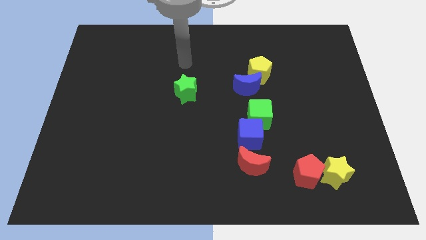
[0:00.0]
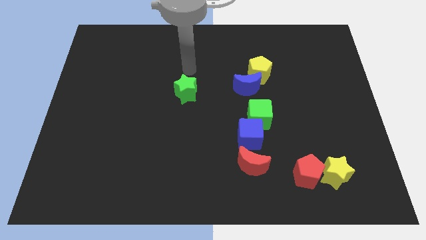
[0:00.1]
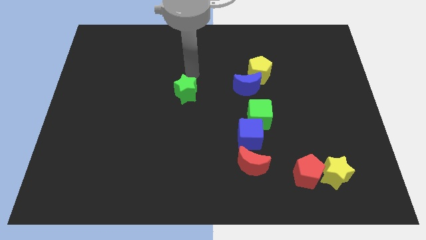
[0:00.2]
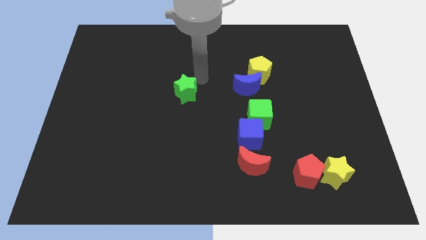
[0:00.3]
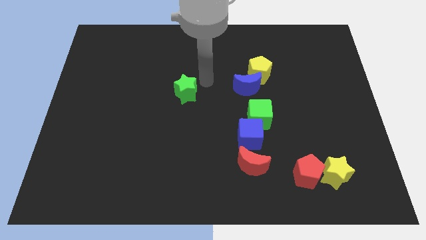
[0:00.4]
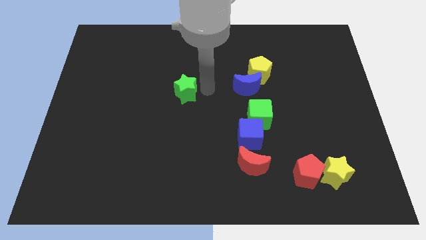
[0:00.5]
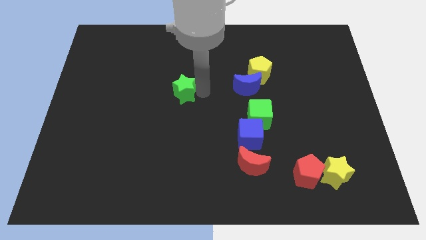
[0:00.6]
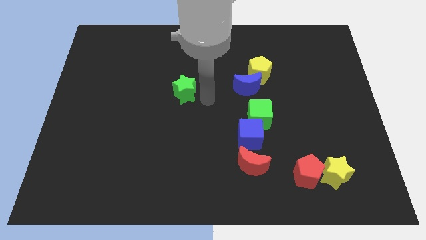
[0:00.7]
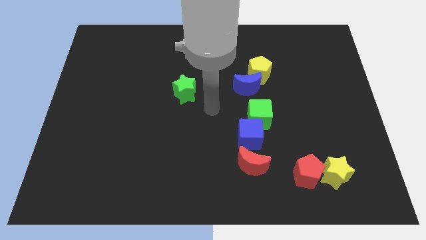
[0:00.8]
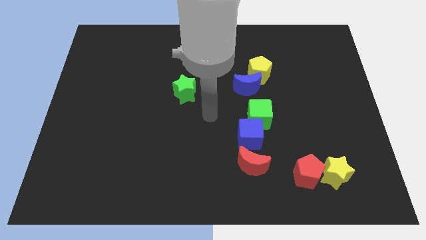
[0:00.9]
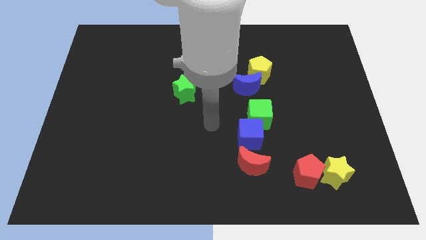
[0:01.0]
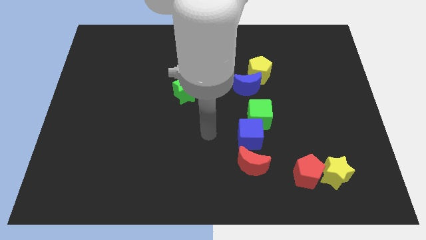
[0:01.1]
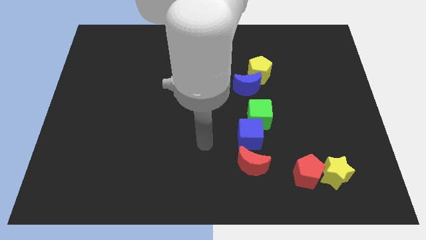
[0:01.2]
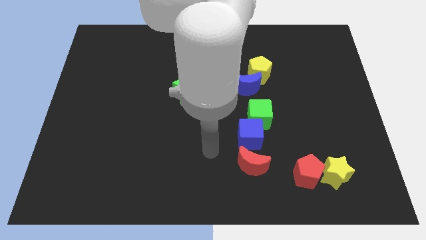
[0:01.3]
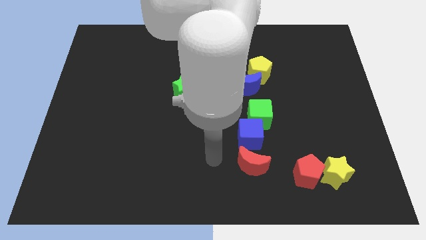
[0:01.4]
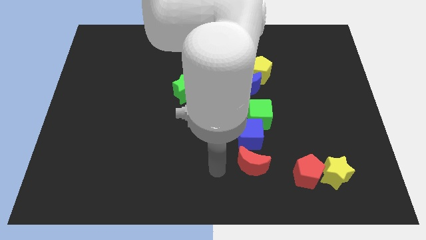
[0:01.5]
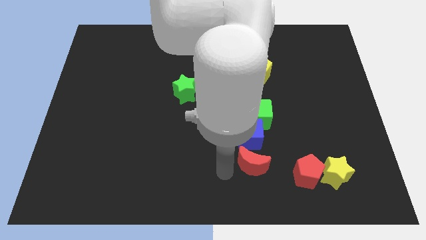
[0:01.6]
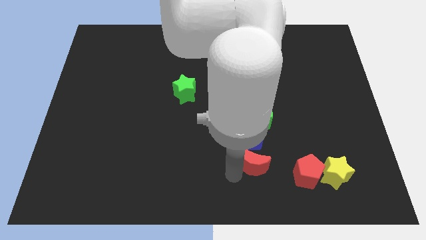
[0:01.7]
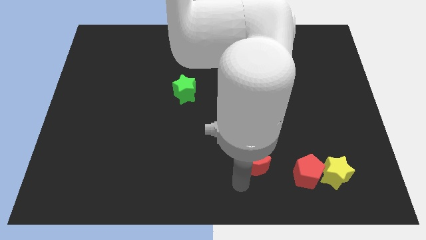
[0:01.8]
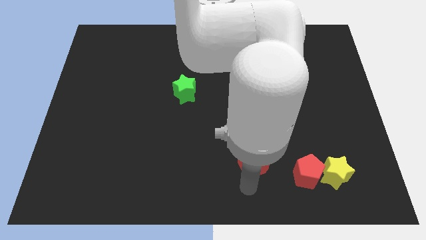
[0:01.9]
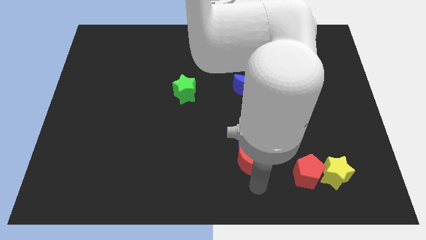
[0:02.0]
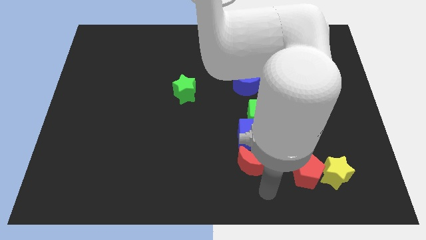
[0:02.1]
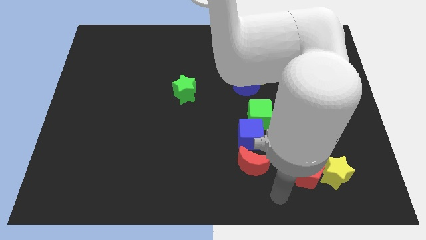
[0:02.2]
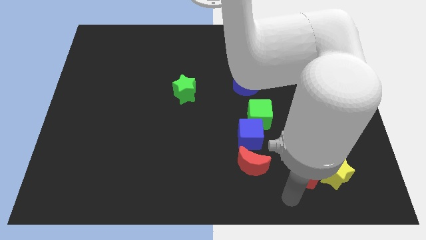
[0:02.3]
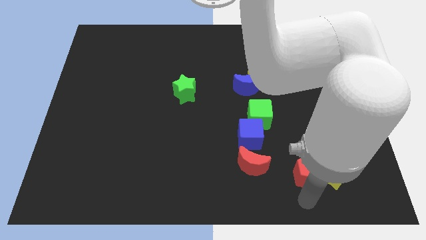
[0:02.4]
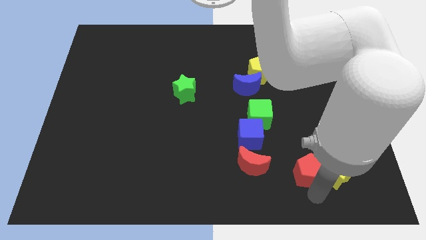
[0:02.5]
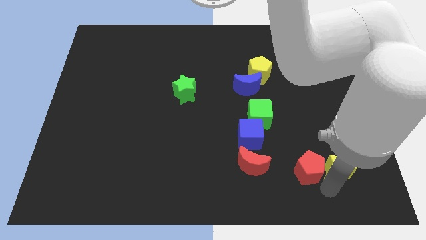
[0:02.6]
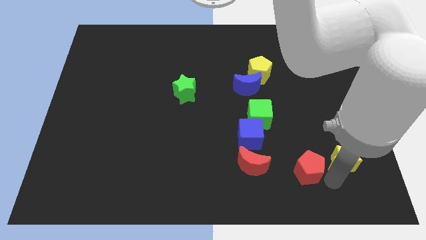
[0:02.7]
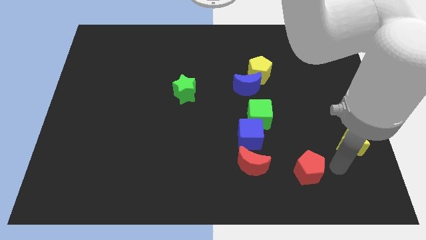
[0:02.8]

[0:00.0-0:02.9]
move the red pentagon away from the yellow star

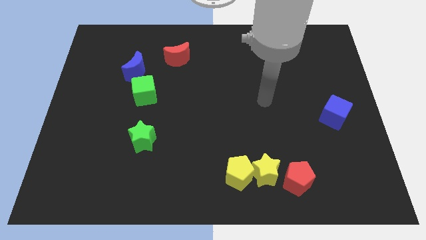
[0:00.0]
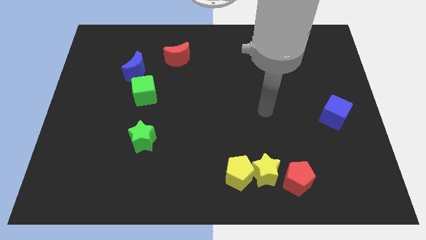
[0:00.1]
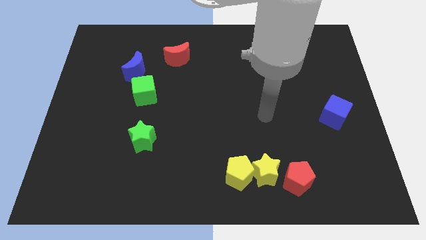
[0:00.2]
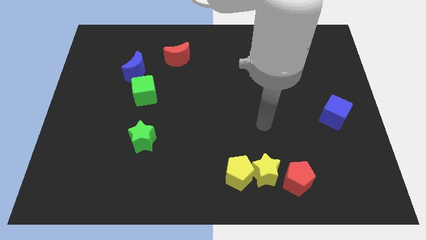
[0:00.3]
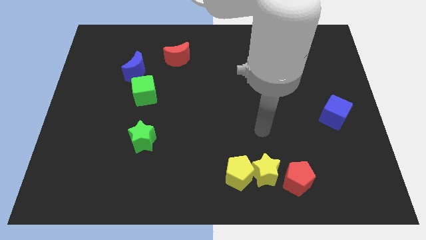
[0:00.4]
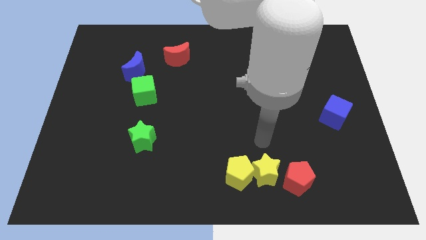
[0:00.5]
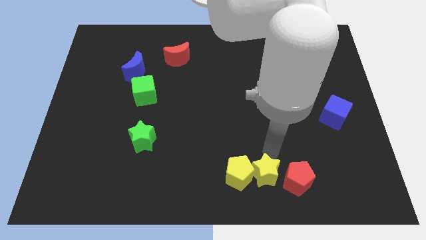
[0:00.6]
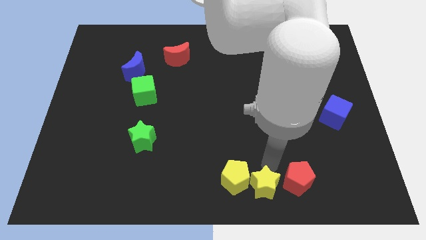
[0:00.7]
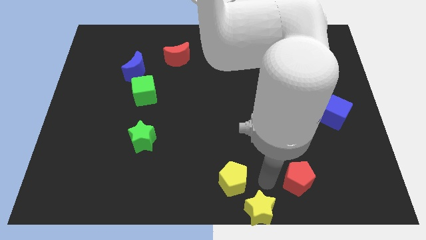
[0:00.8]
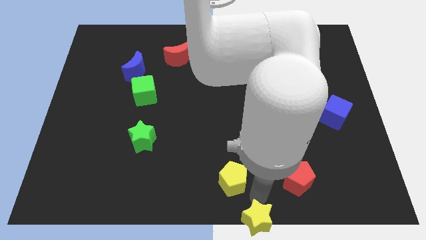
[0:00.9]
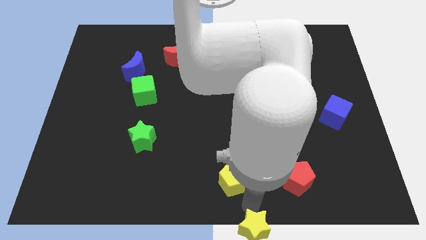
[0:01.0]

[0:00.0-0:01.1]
pull the yellow pentagon apart from the yellow star

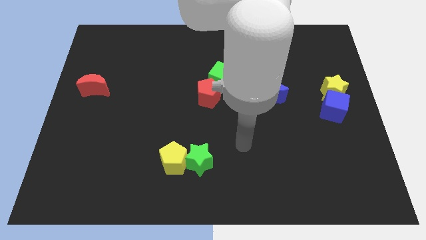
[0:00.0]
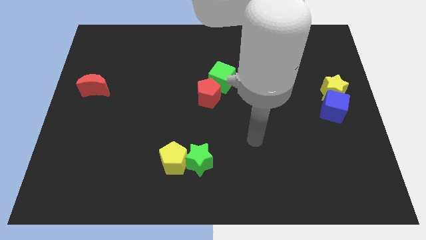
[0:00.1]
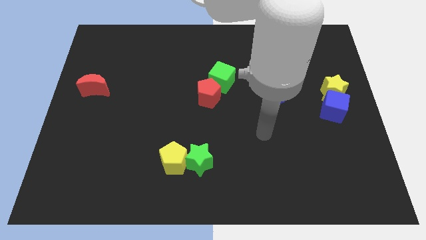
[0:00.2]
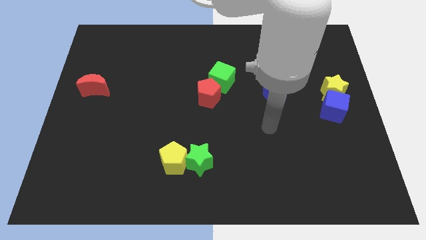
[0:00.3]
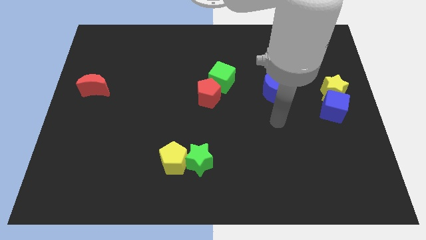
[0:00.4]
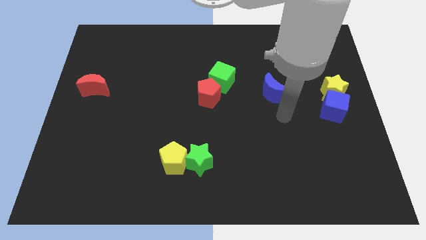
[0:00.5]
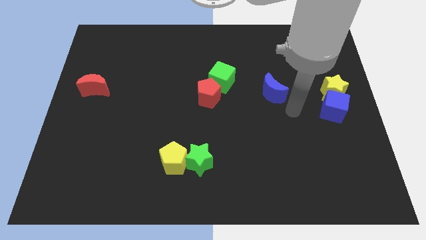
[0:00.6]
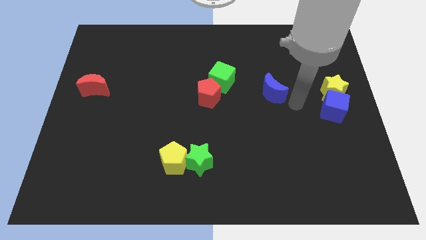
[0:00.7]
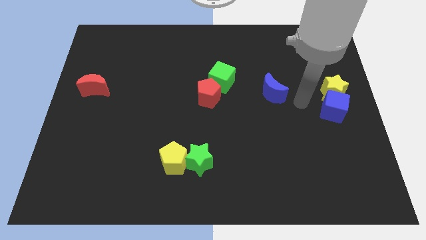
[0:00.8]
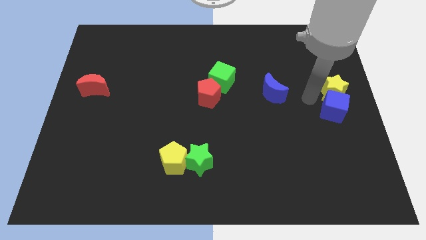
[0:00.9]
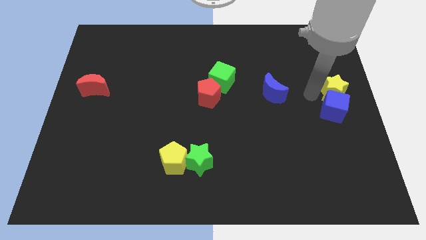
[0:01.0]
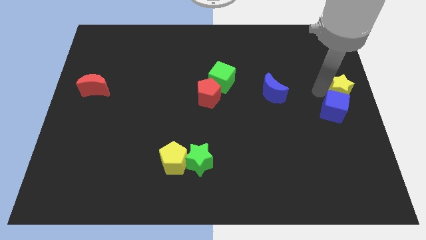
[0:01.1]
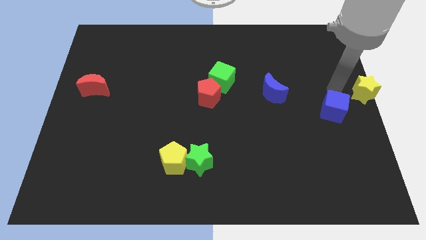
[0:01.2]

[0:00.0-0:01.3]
move the blue cube away from the yellow star

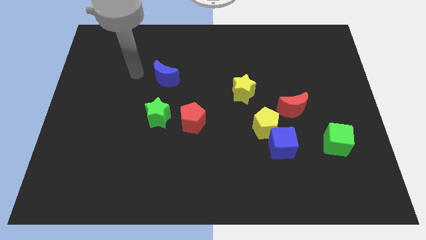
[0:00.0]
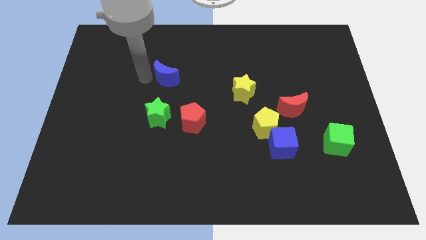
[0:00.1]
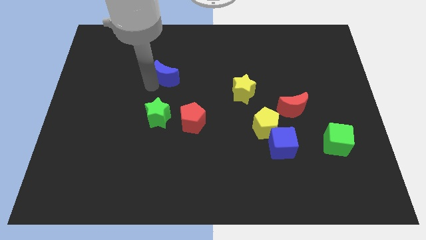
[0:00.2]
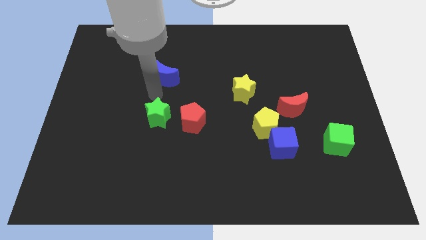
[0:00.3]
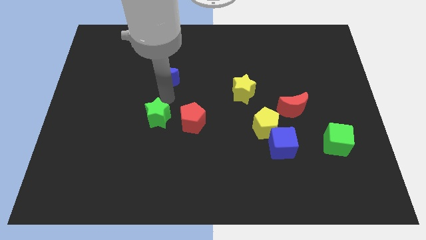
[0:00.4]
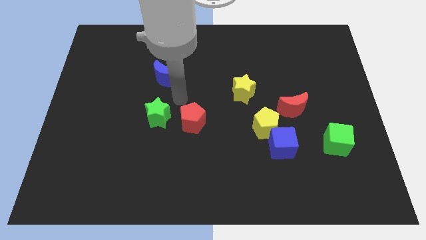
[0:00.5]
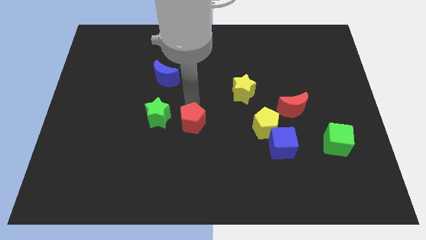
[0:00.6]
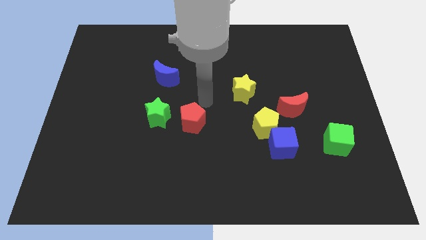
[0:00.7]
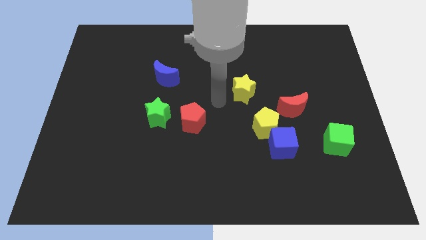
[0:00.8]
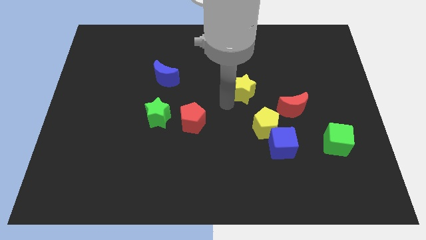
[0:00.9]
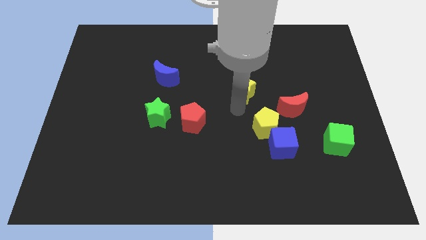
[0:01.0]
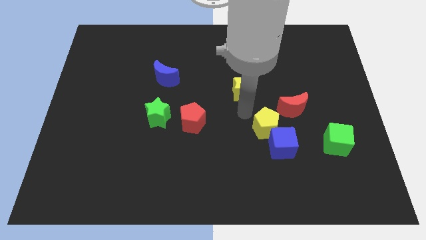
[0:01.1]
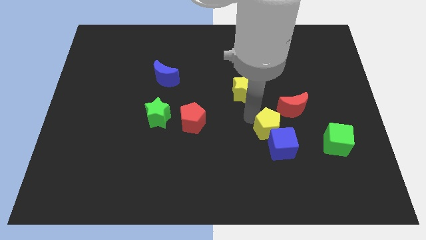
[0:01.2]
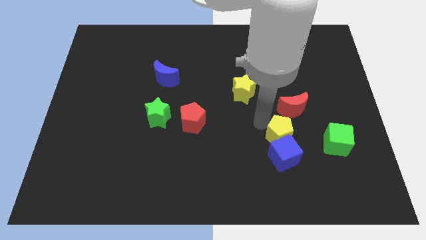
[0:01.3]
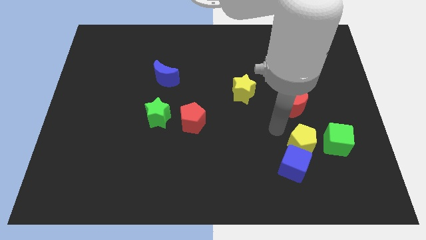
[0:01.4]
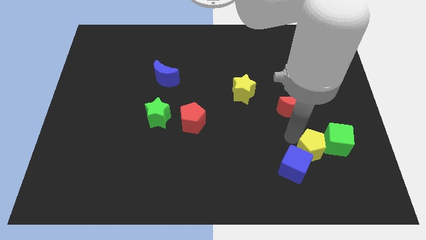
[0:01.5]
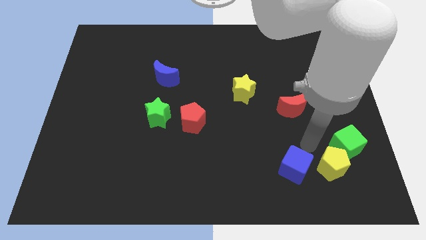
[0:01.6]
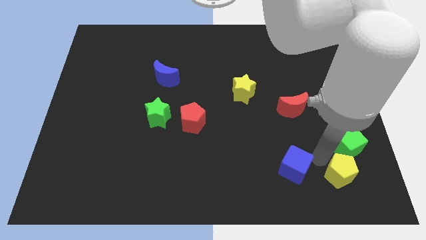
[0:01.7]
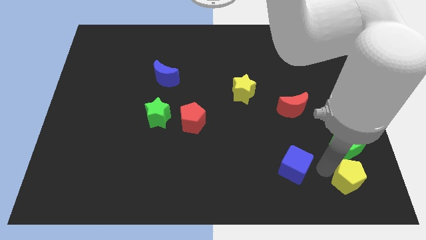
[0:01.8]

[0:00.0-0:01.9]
pull the blue cube apart from the yellow pentagon

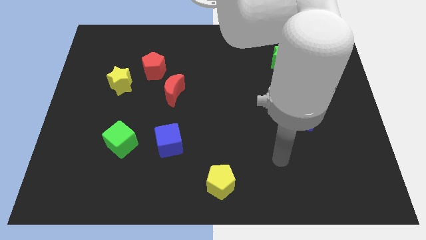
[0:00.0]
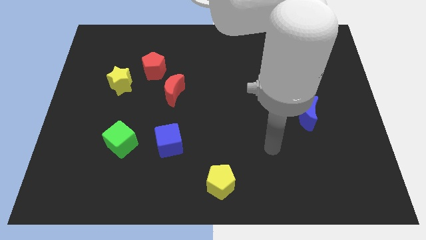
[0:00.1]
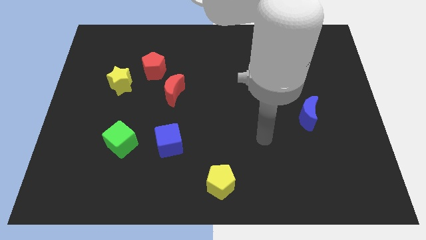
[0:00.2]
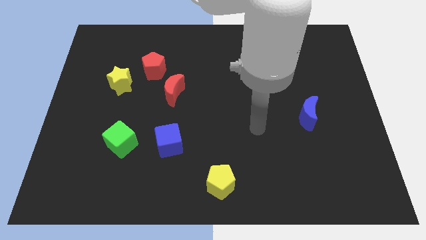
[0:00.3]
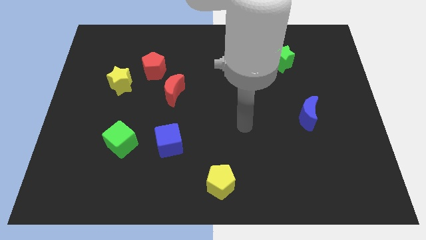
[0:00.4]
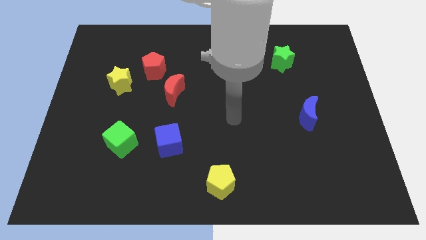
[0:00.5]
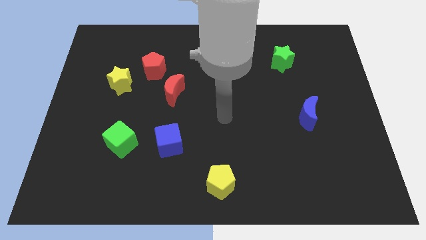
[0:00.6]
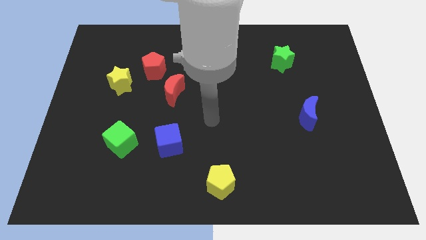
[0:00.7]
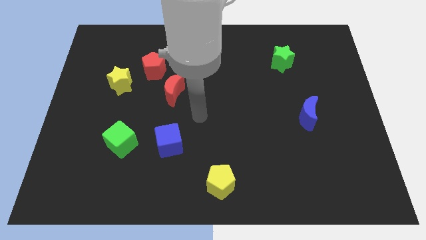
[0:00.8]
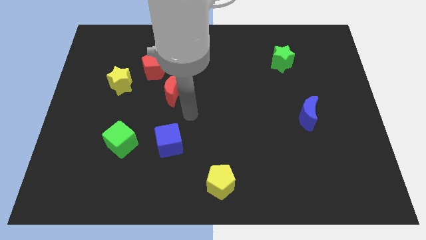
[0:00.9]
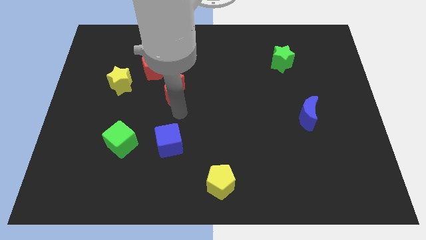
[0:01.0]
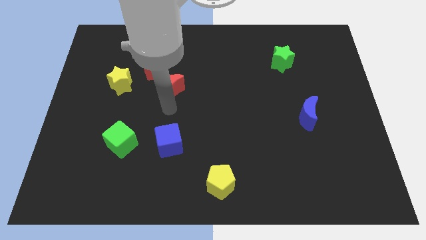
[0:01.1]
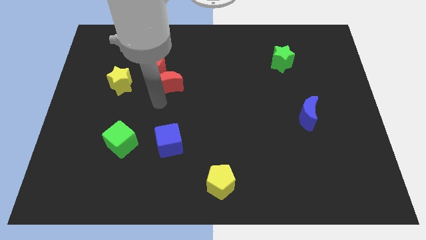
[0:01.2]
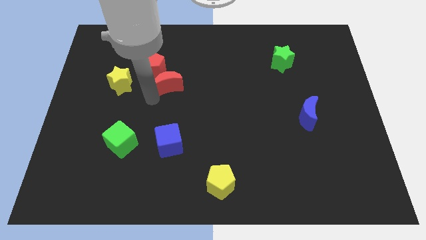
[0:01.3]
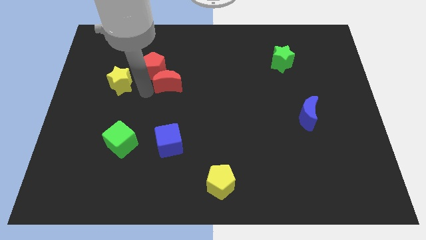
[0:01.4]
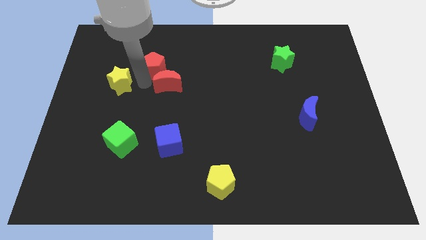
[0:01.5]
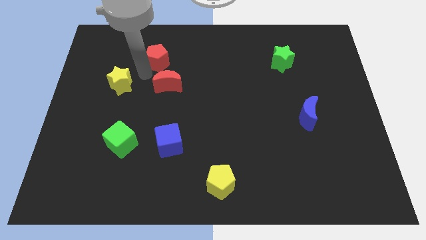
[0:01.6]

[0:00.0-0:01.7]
separate the yellow star from the red pentagon

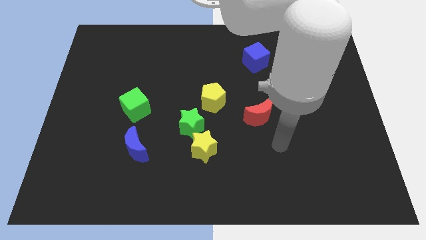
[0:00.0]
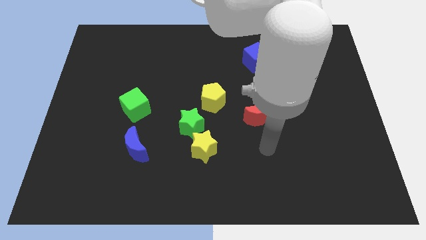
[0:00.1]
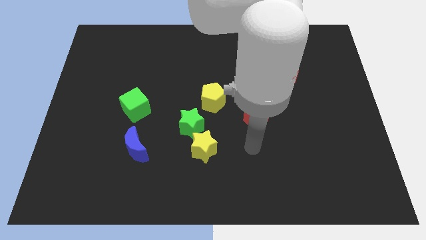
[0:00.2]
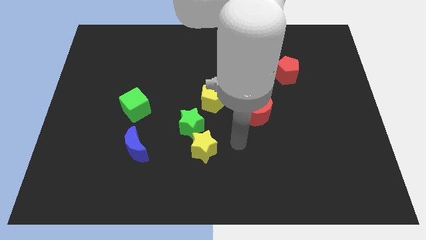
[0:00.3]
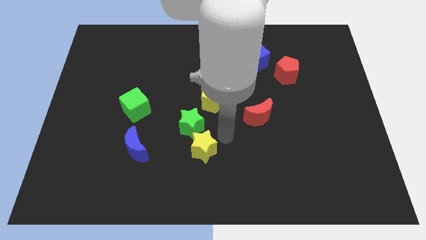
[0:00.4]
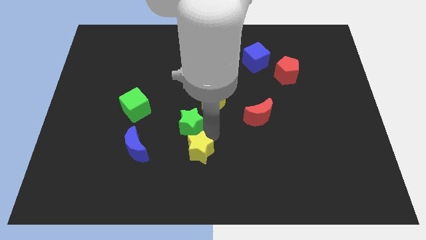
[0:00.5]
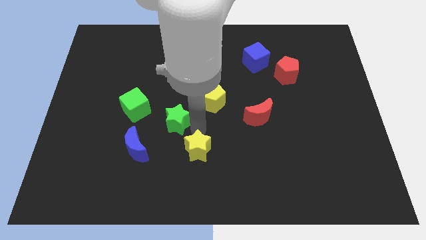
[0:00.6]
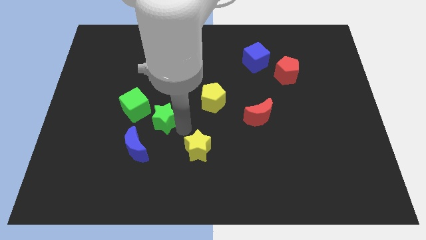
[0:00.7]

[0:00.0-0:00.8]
move the yellow star away from the green star
